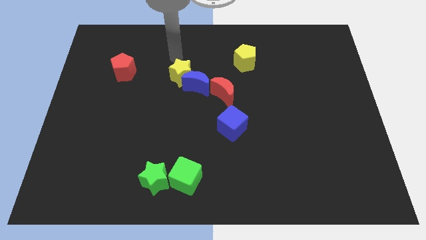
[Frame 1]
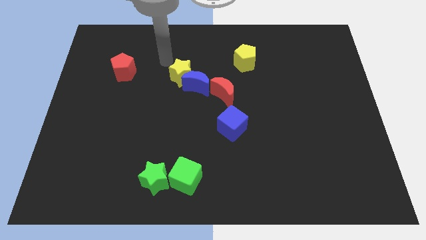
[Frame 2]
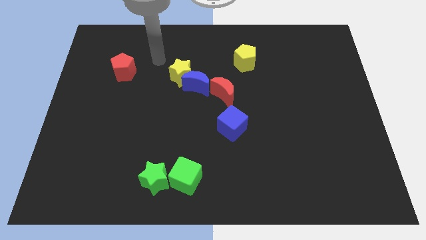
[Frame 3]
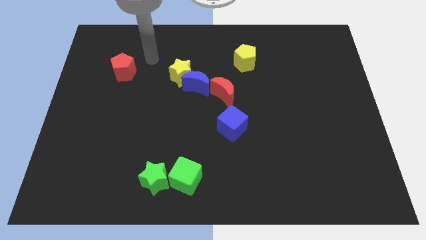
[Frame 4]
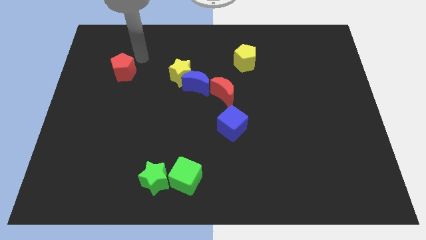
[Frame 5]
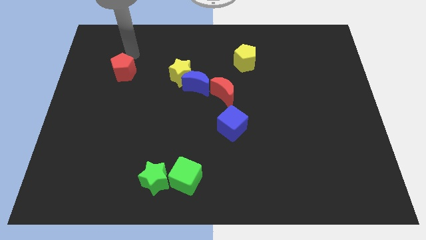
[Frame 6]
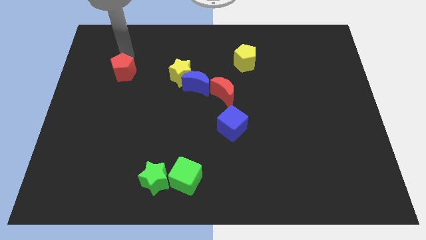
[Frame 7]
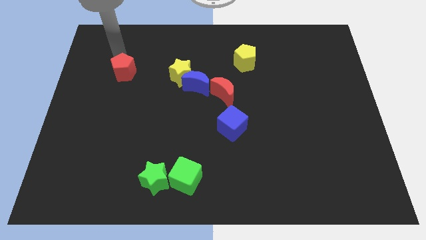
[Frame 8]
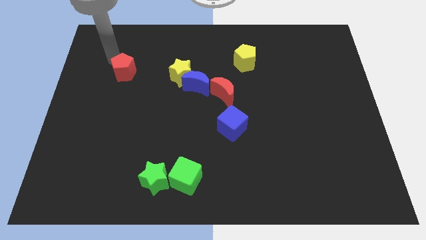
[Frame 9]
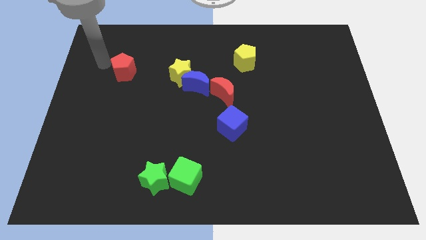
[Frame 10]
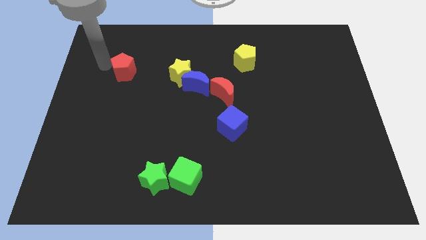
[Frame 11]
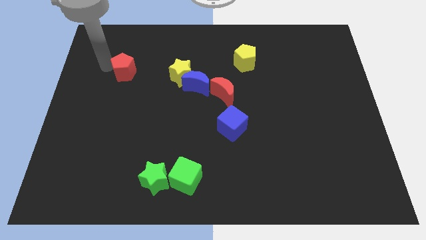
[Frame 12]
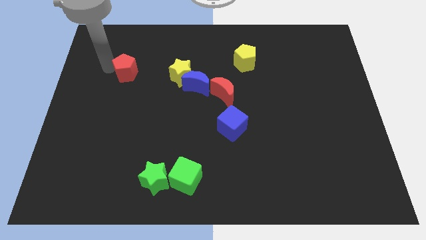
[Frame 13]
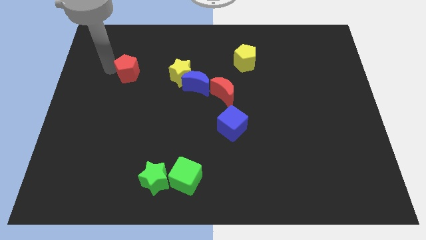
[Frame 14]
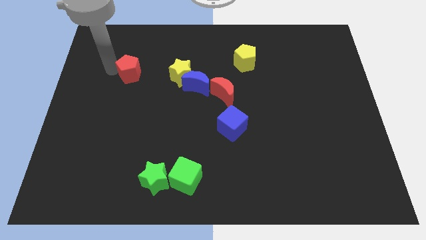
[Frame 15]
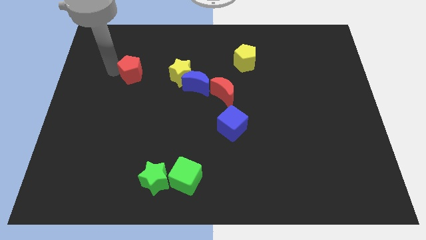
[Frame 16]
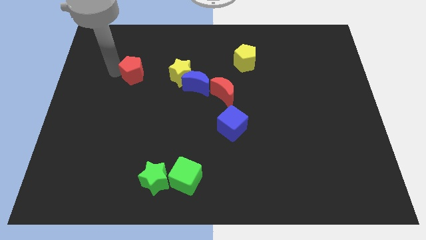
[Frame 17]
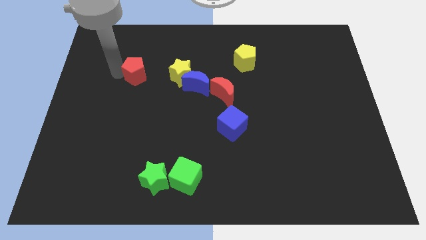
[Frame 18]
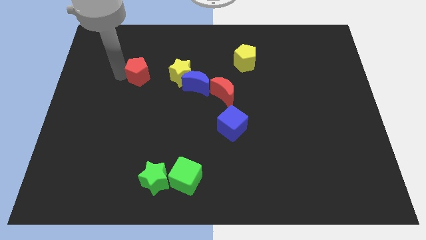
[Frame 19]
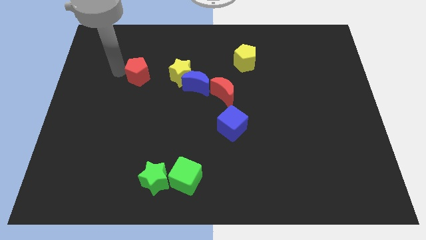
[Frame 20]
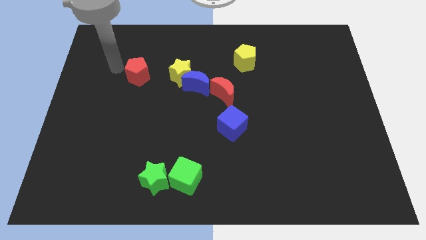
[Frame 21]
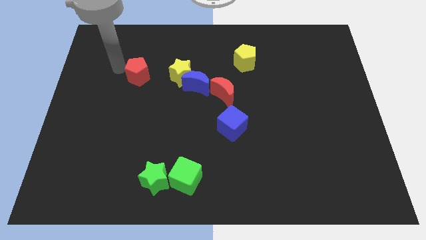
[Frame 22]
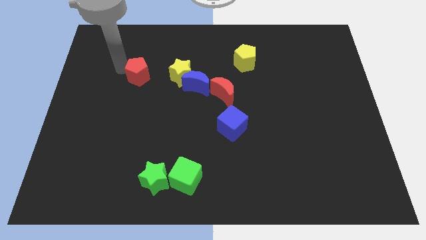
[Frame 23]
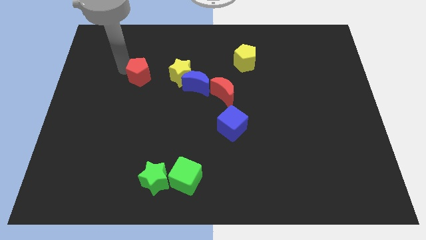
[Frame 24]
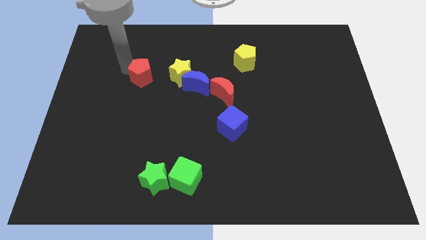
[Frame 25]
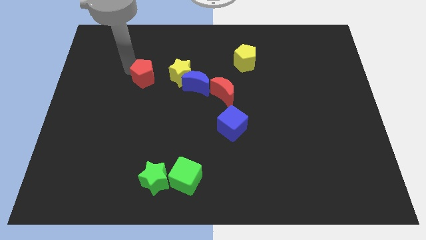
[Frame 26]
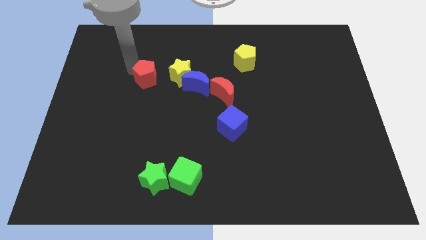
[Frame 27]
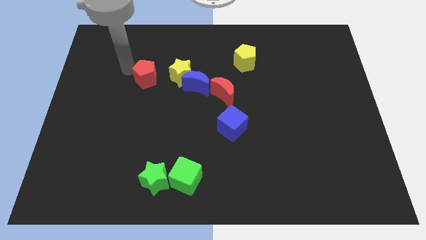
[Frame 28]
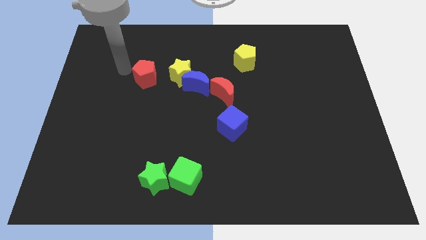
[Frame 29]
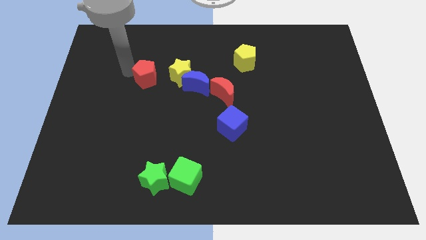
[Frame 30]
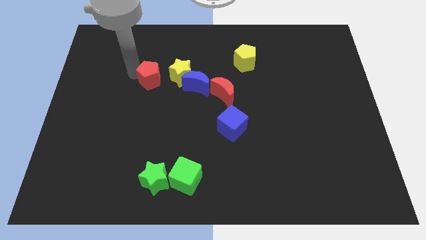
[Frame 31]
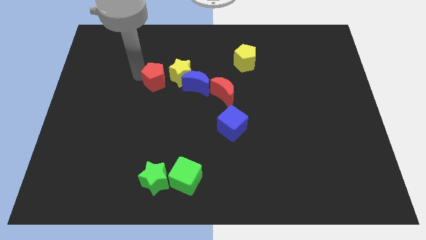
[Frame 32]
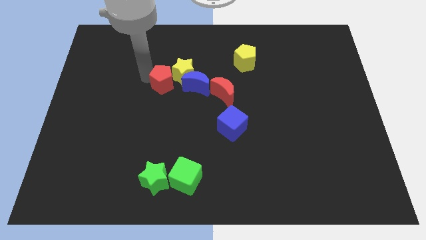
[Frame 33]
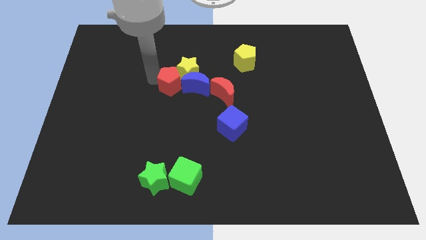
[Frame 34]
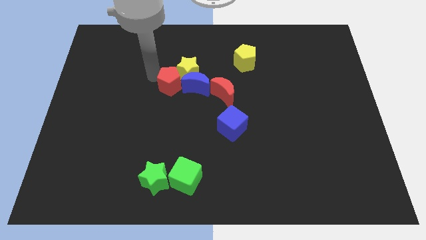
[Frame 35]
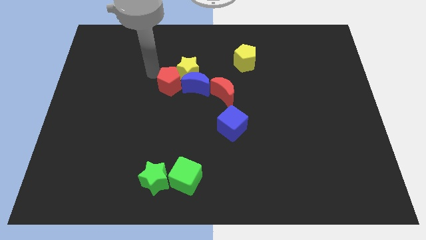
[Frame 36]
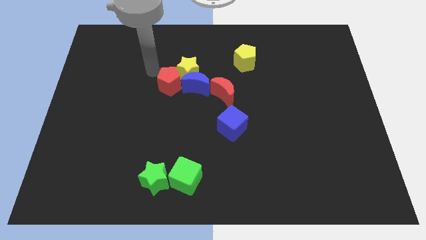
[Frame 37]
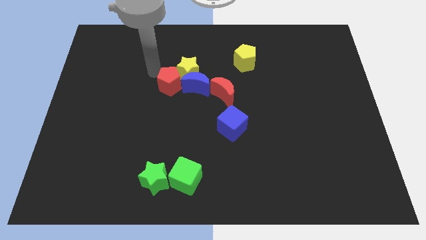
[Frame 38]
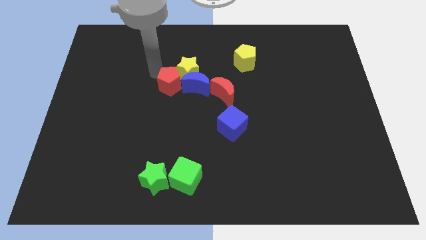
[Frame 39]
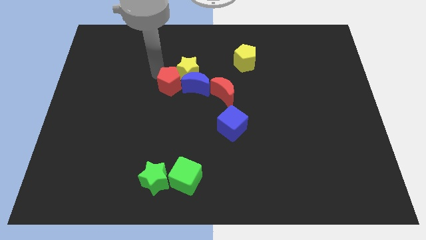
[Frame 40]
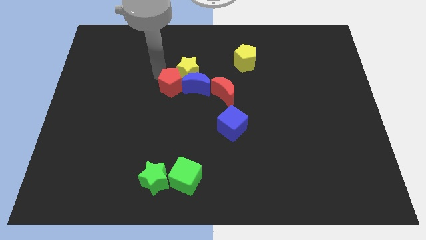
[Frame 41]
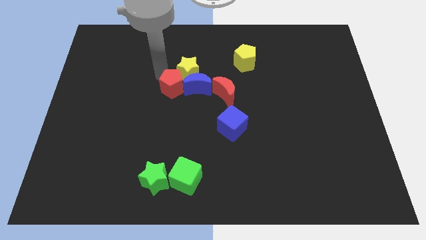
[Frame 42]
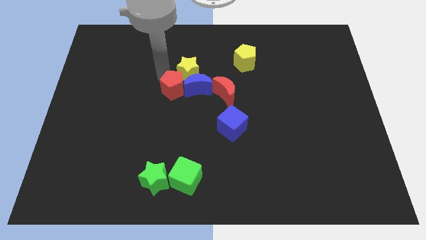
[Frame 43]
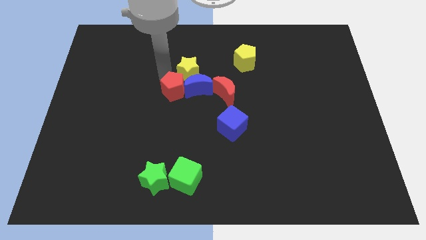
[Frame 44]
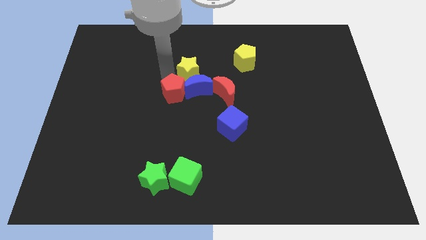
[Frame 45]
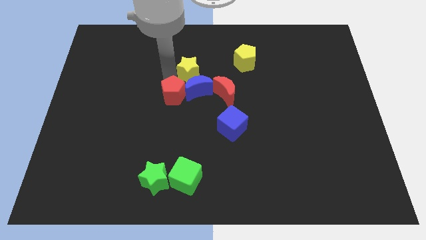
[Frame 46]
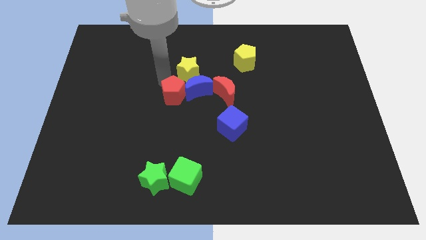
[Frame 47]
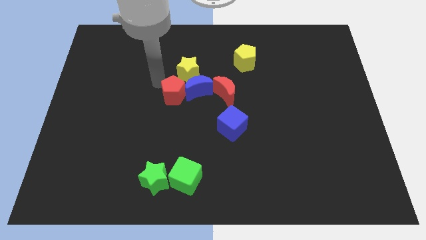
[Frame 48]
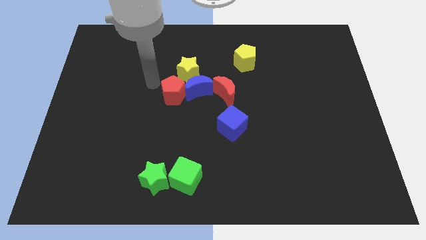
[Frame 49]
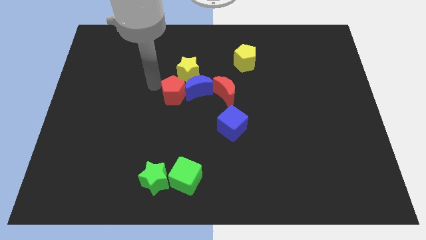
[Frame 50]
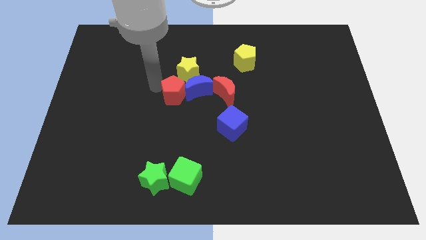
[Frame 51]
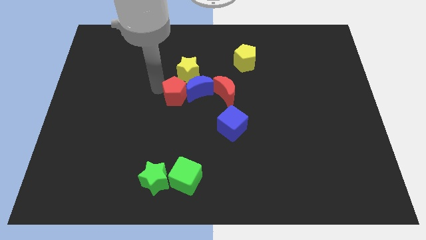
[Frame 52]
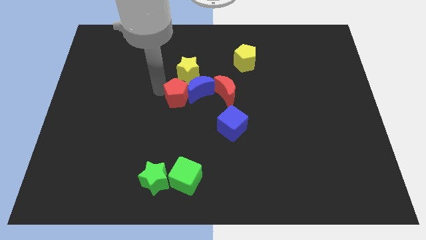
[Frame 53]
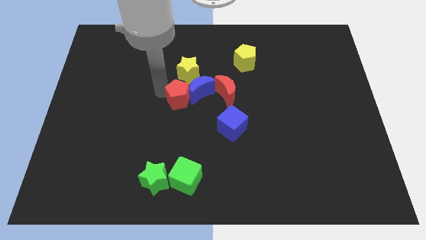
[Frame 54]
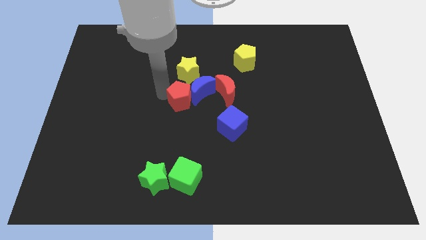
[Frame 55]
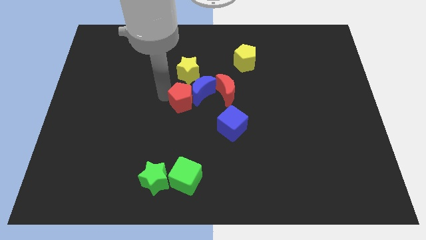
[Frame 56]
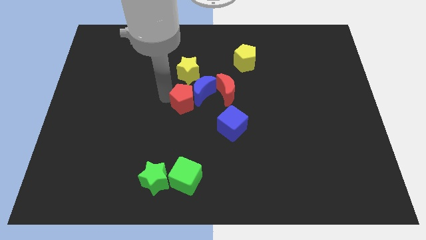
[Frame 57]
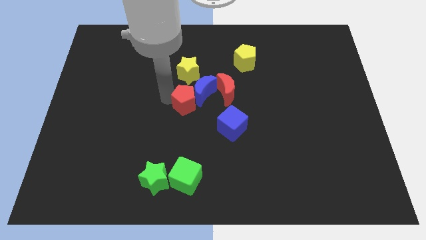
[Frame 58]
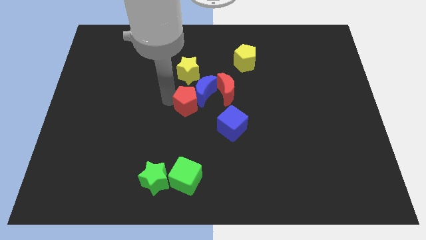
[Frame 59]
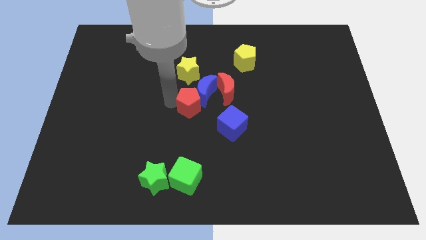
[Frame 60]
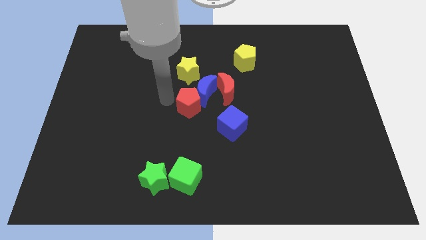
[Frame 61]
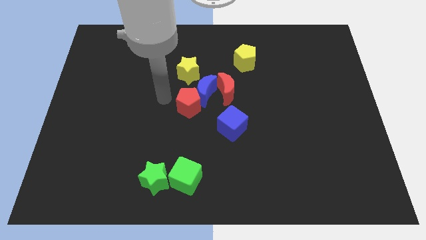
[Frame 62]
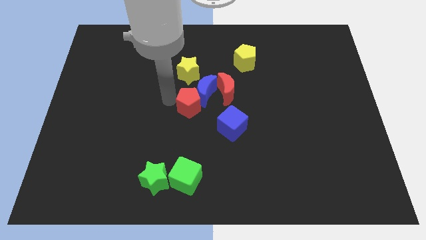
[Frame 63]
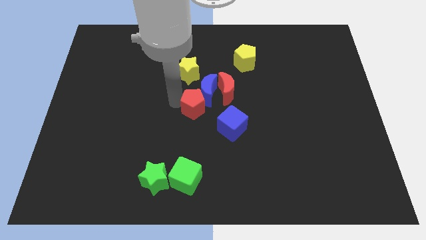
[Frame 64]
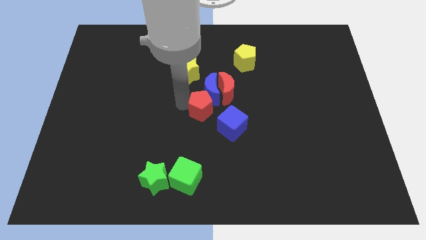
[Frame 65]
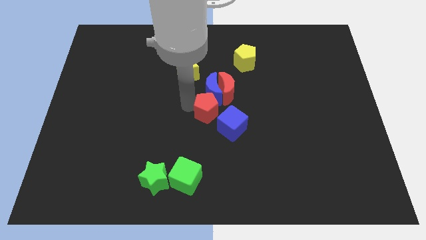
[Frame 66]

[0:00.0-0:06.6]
move the red pentagon to the bottom right of the blue moon

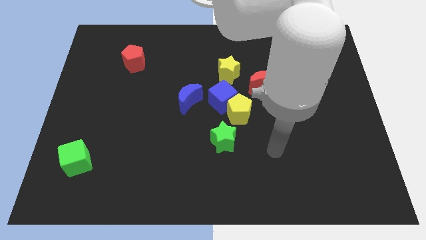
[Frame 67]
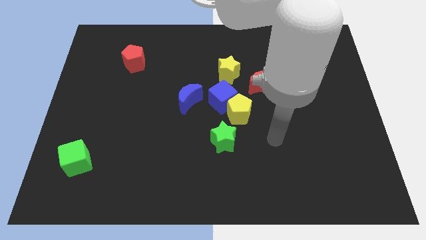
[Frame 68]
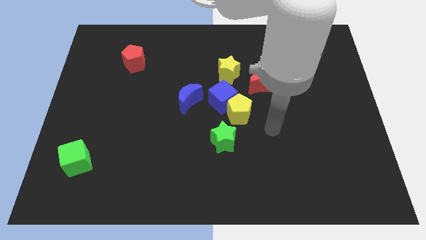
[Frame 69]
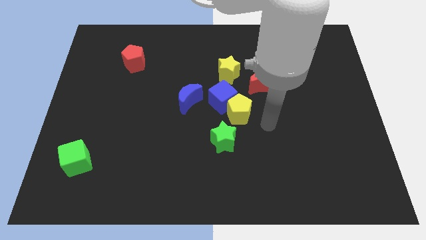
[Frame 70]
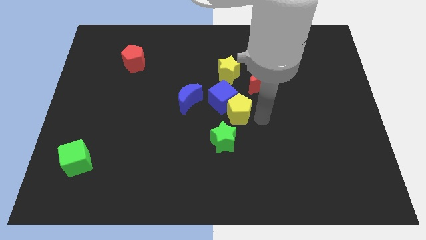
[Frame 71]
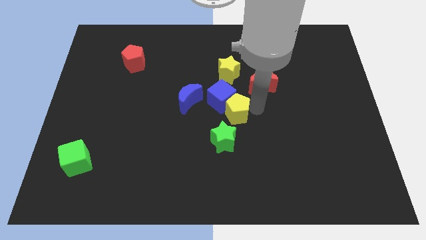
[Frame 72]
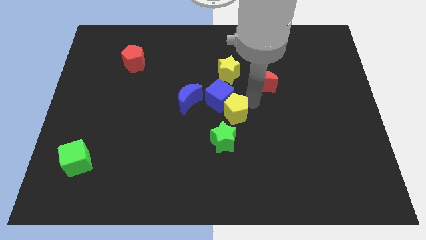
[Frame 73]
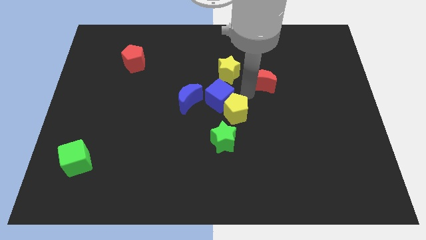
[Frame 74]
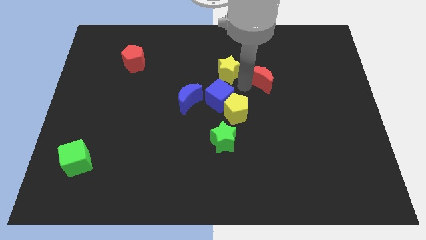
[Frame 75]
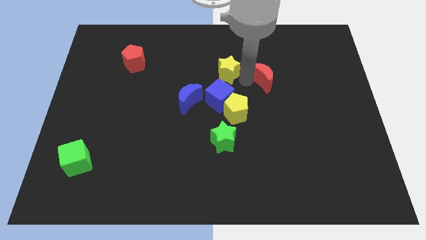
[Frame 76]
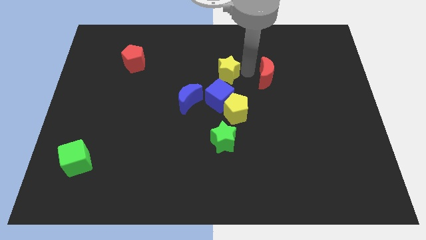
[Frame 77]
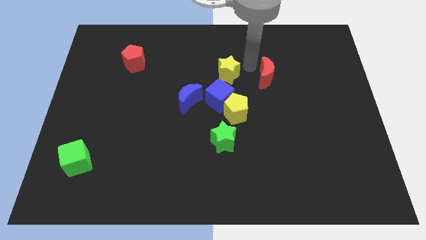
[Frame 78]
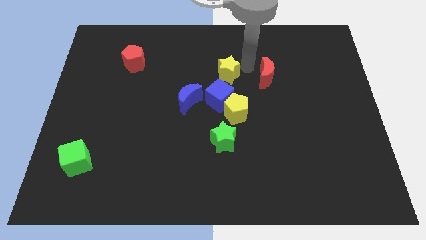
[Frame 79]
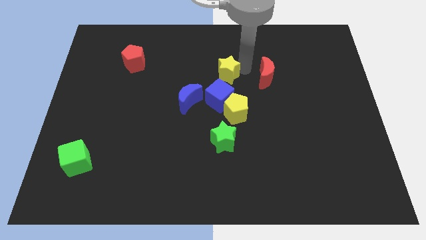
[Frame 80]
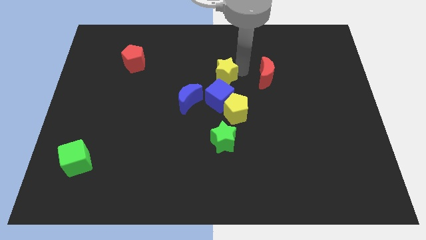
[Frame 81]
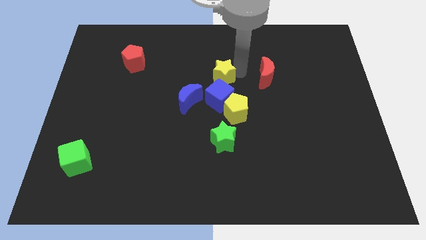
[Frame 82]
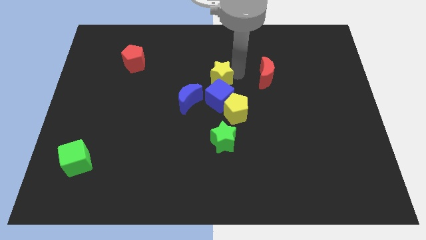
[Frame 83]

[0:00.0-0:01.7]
slide the yellow star to the top left of the blue cube
